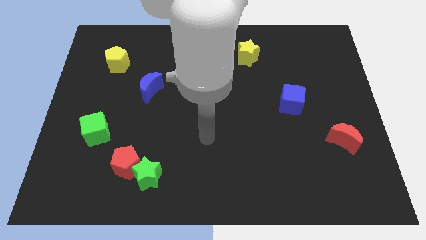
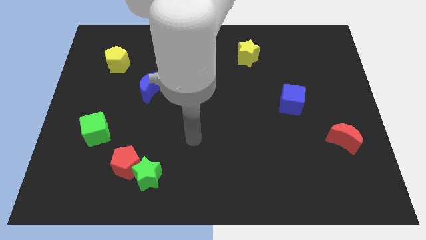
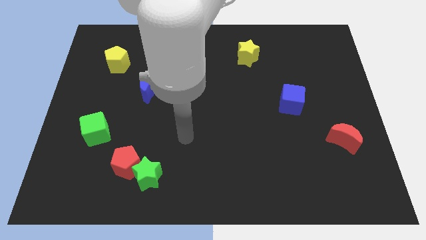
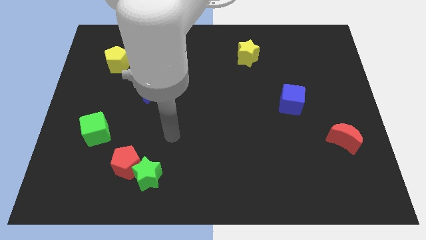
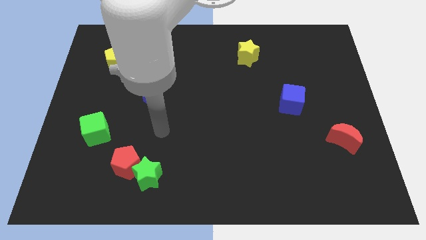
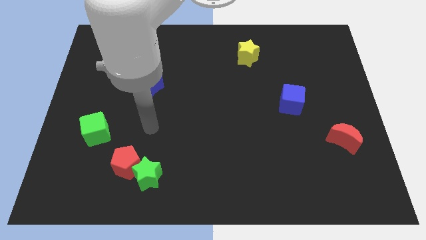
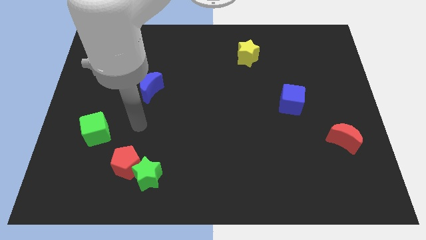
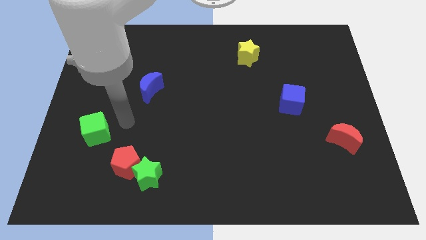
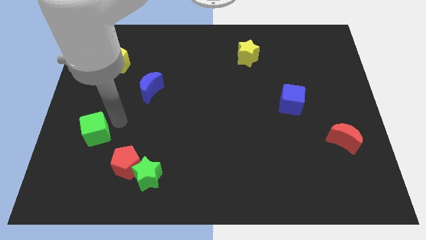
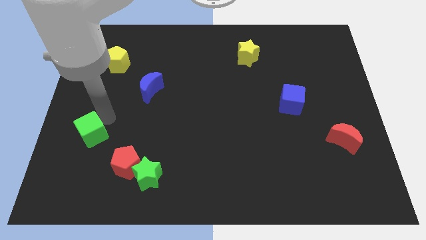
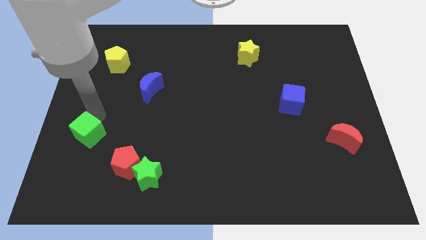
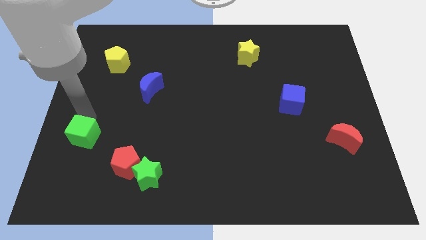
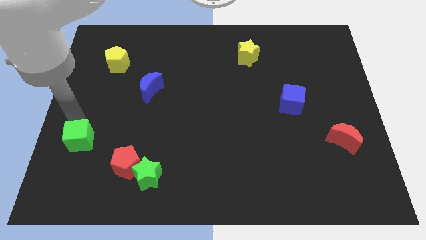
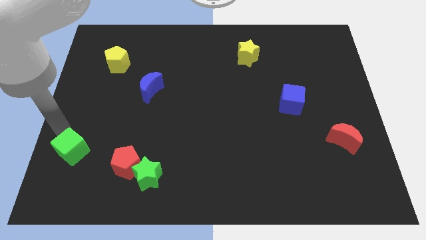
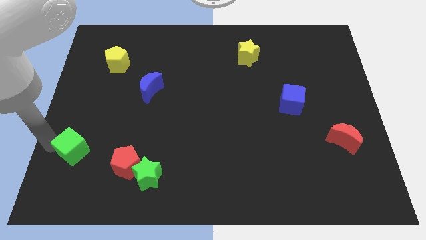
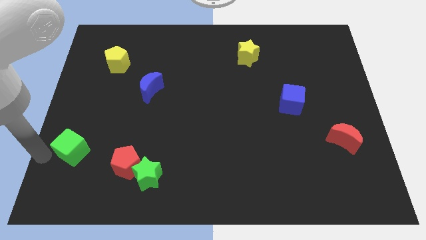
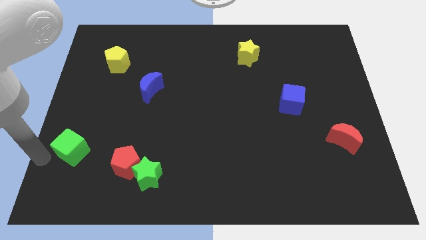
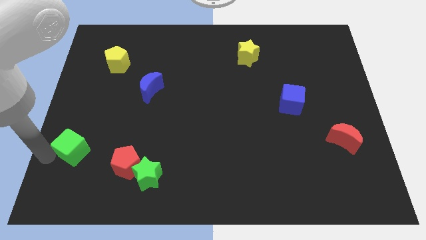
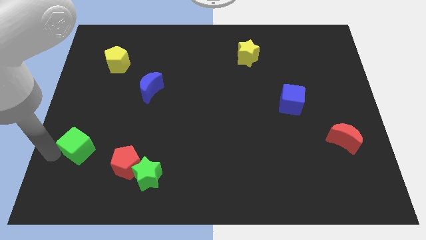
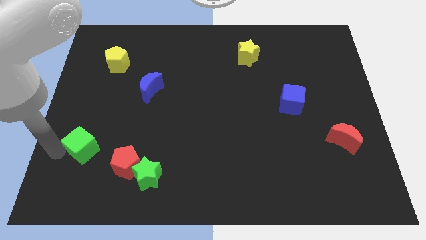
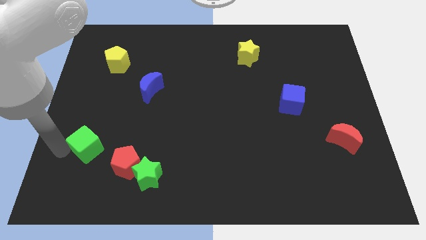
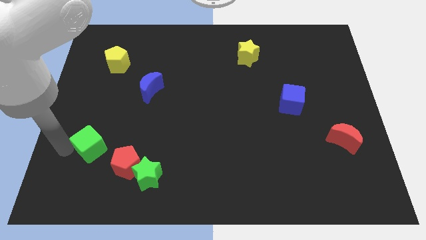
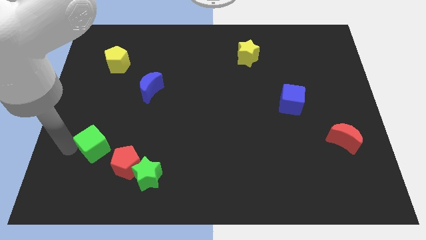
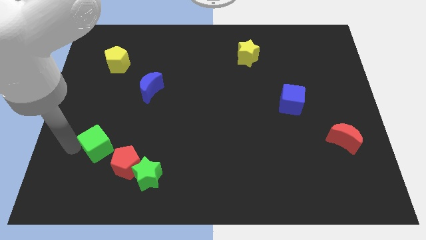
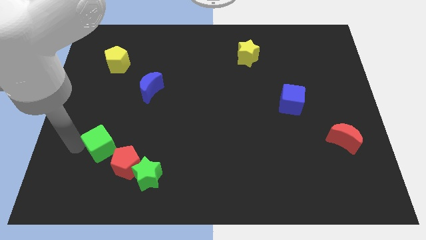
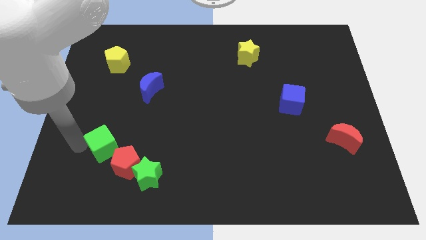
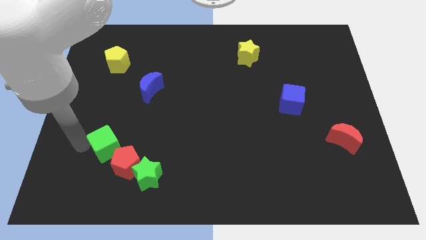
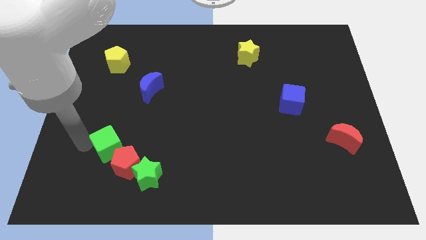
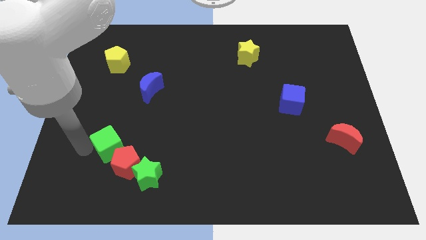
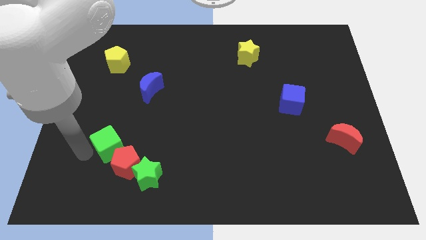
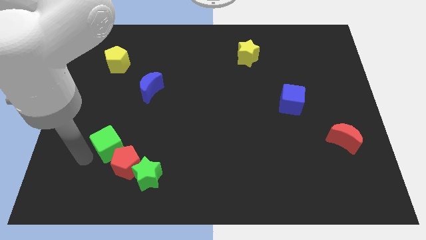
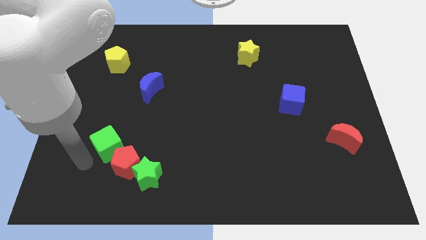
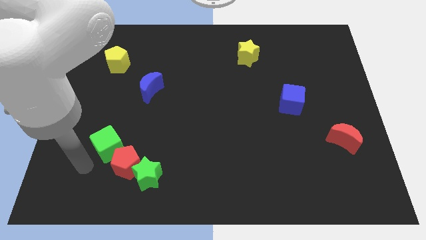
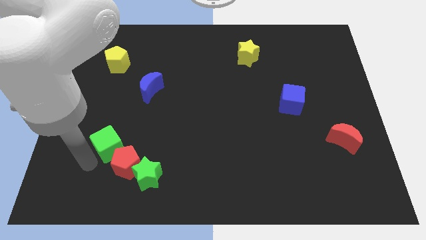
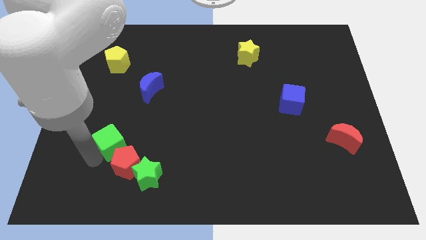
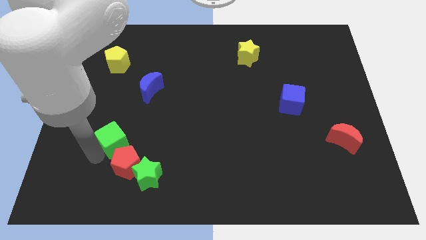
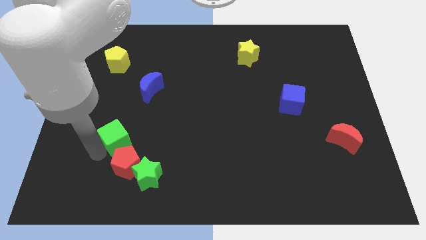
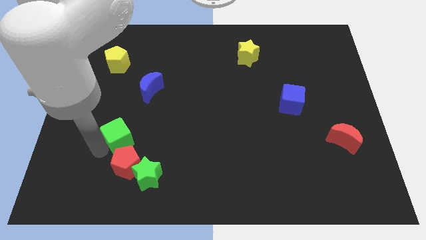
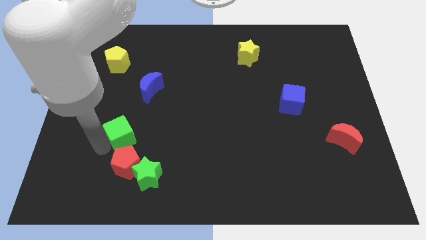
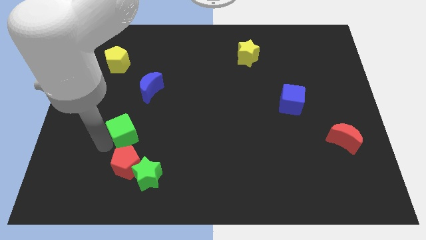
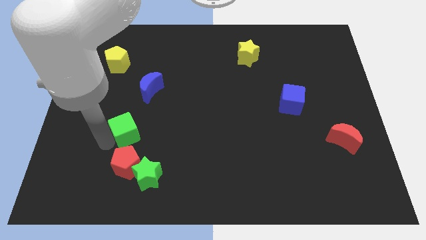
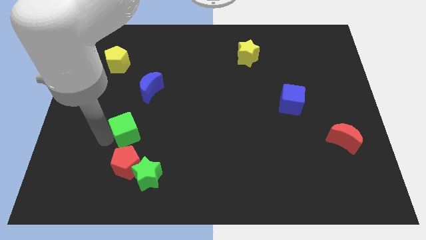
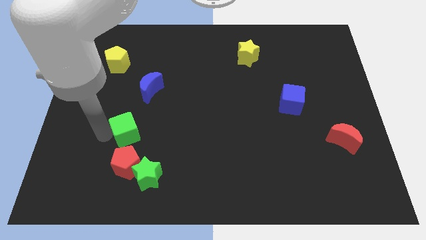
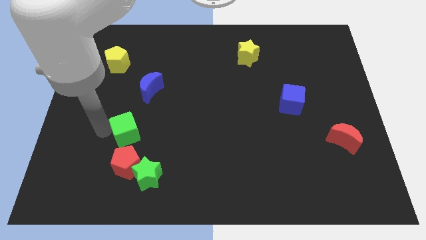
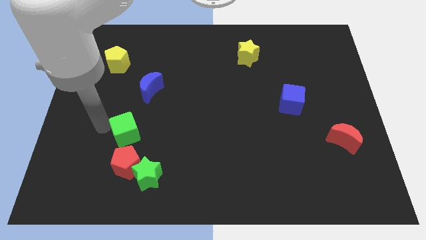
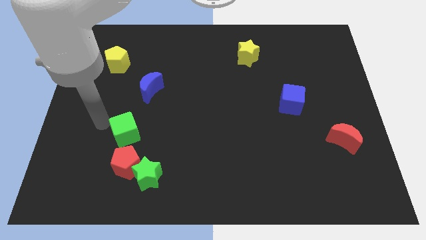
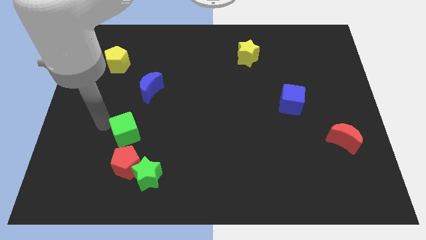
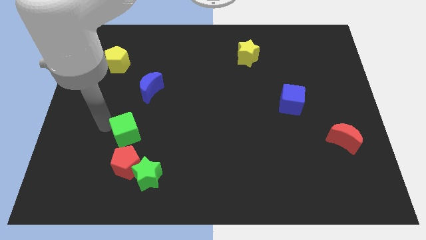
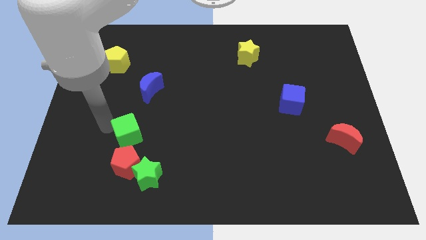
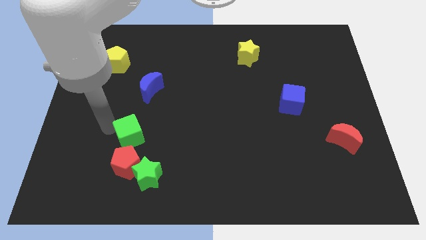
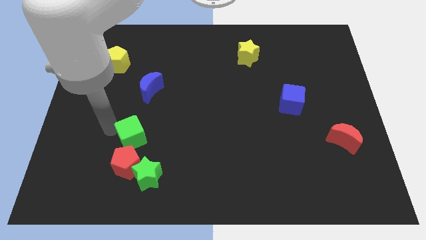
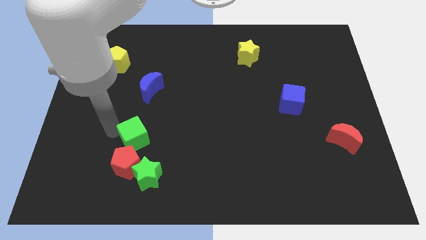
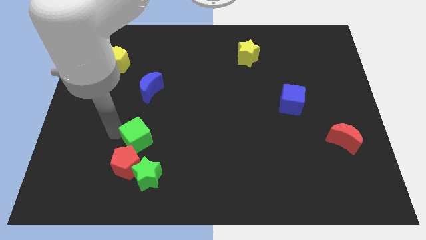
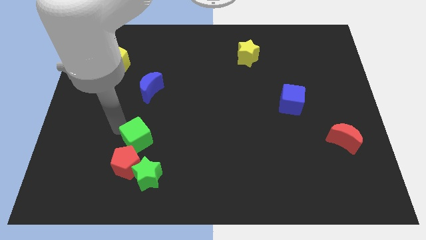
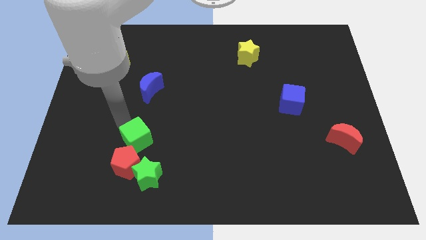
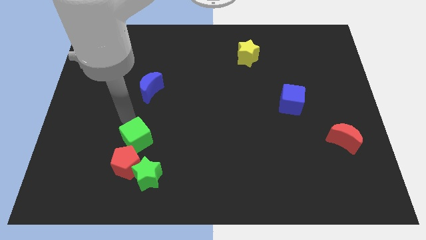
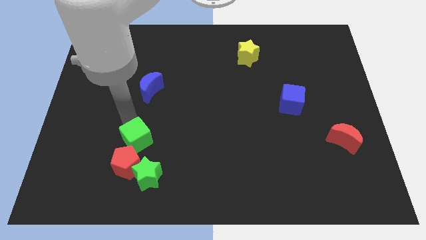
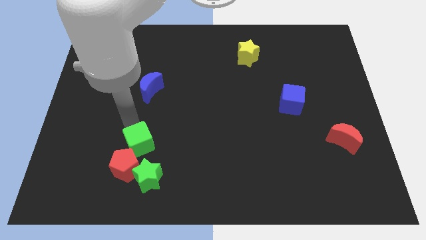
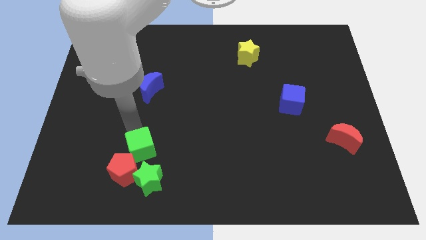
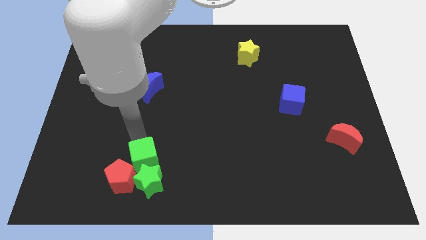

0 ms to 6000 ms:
slide the green cube close to the green star

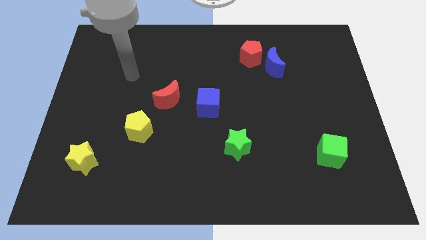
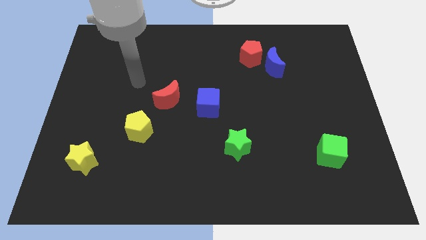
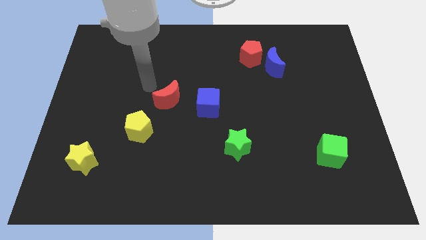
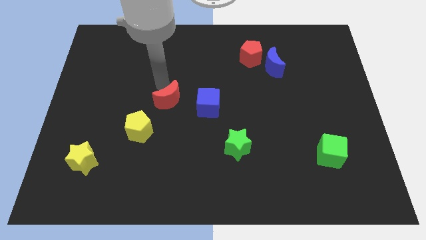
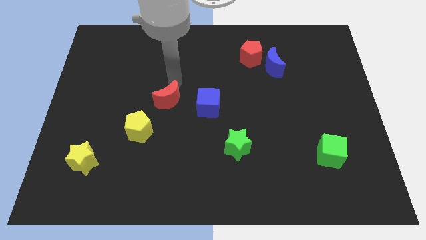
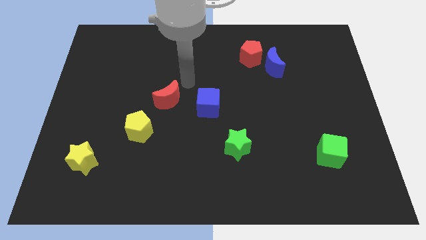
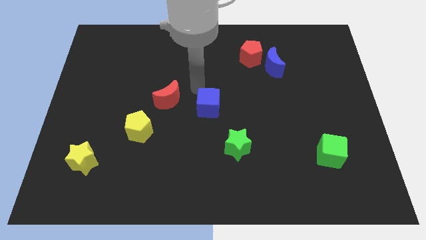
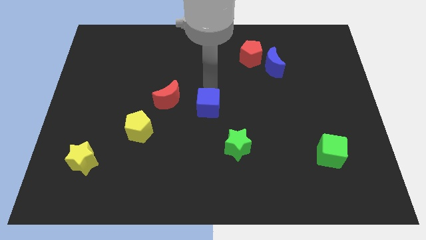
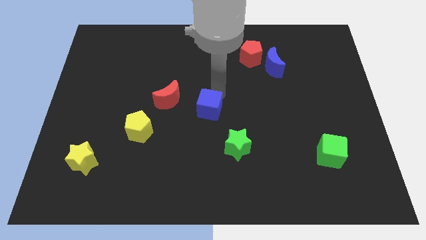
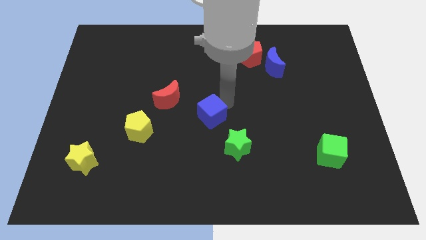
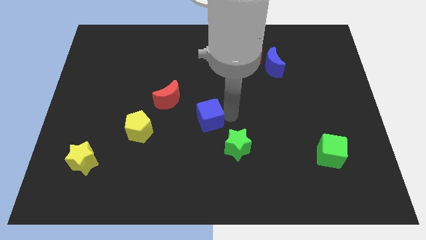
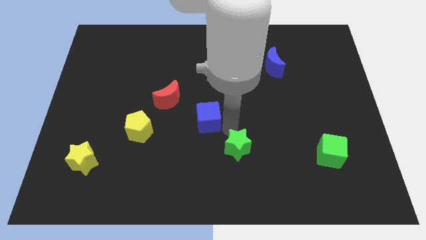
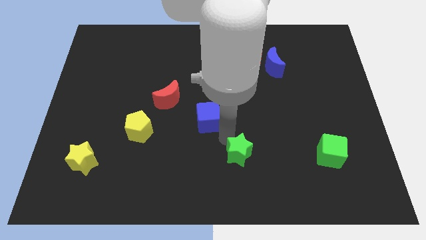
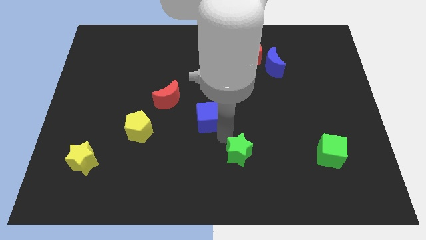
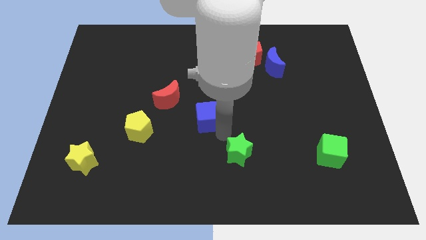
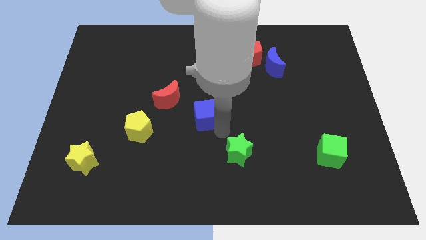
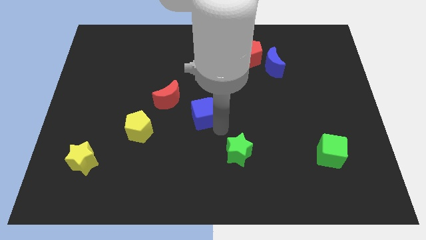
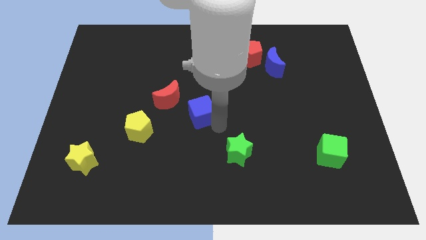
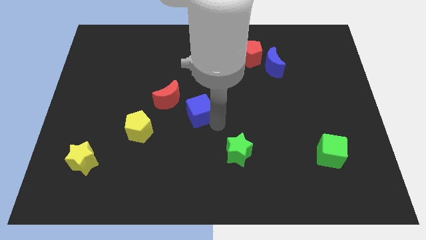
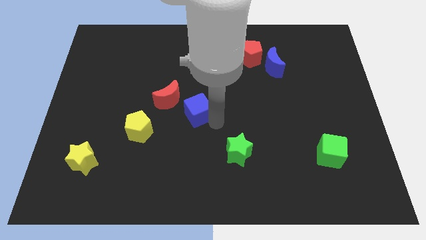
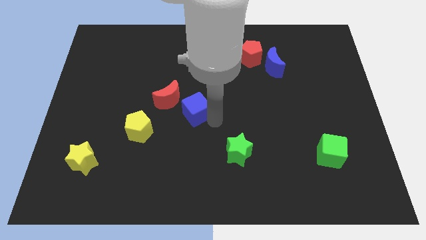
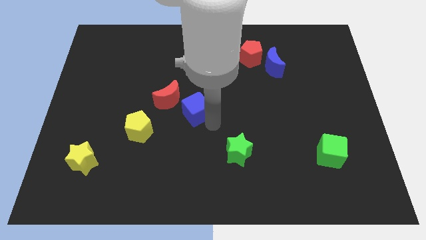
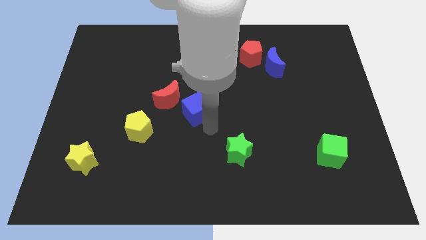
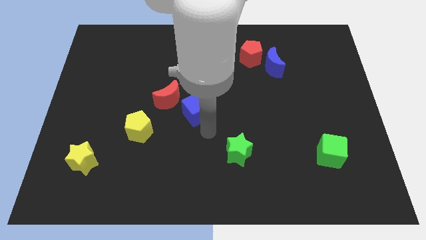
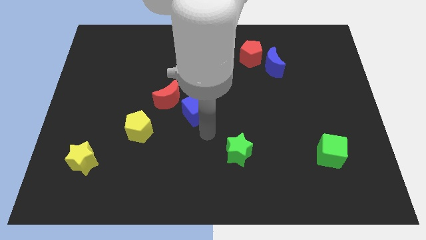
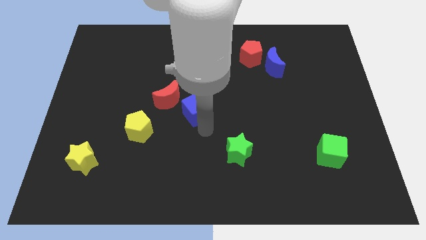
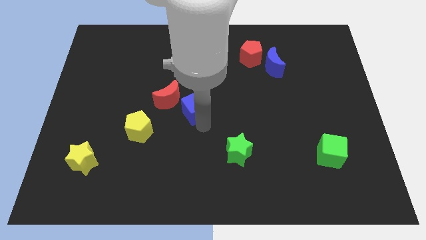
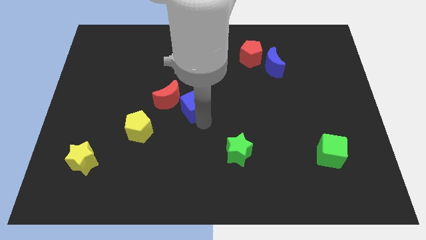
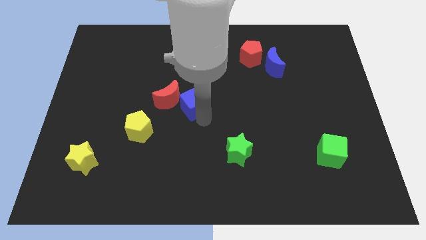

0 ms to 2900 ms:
put the blue cube towards the red moon
